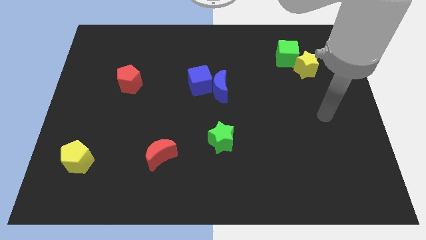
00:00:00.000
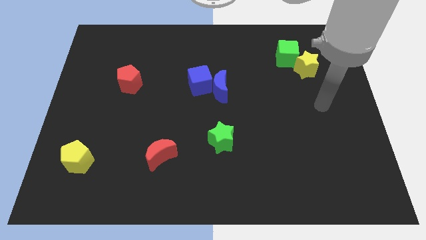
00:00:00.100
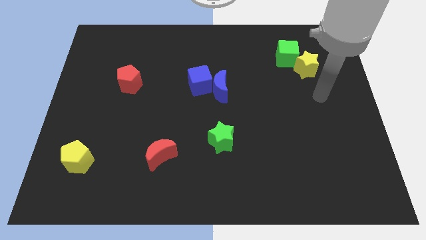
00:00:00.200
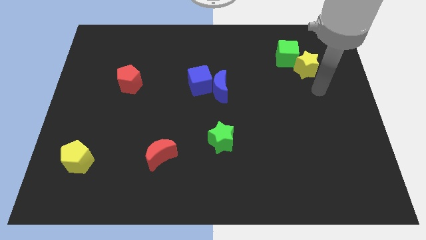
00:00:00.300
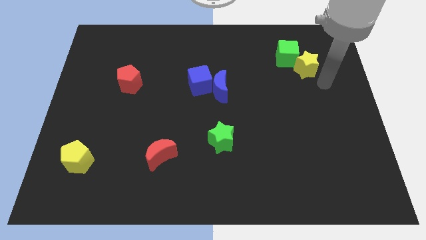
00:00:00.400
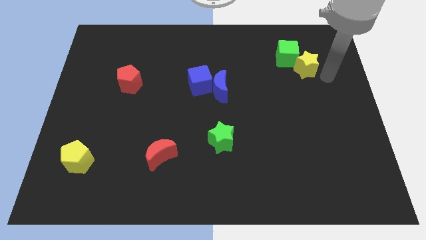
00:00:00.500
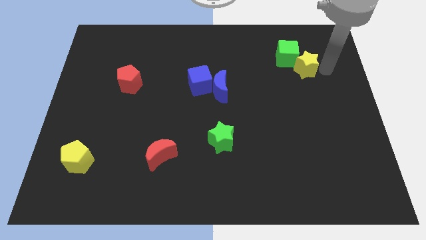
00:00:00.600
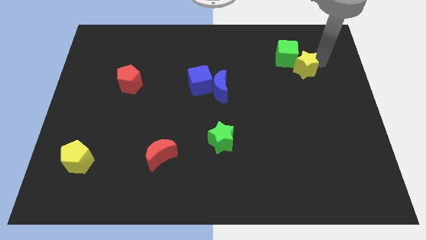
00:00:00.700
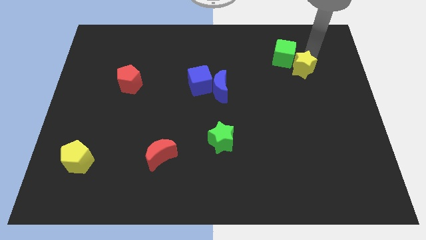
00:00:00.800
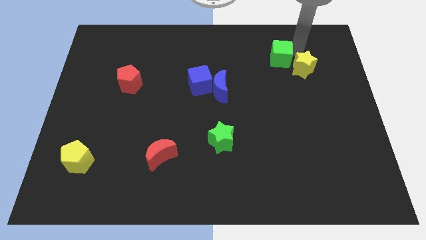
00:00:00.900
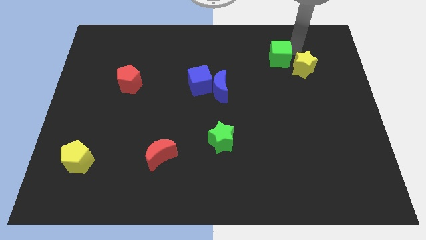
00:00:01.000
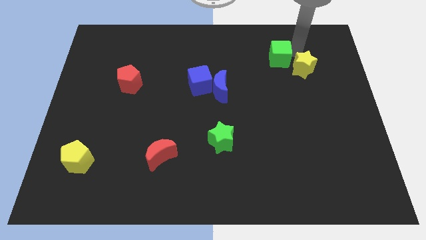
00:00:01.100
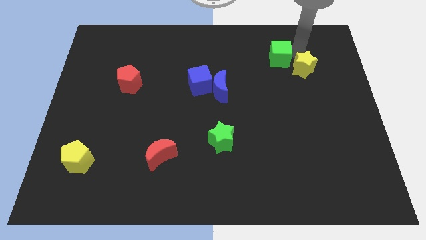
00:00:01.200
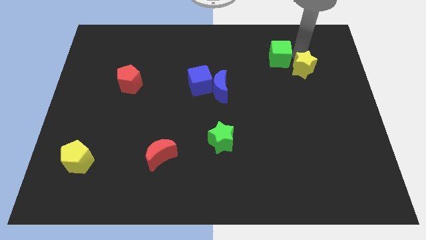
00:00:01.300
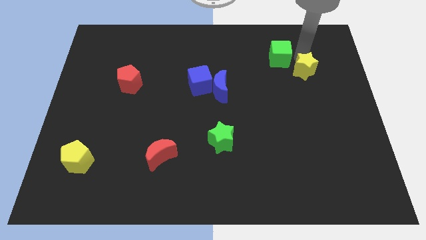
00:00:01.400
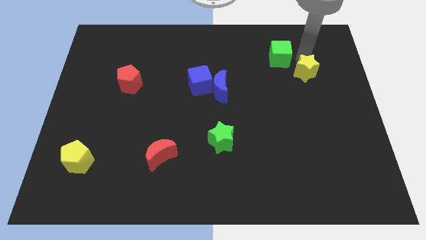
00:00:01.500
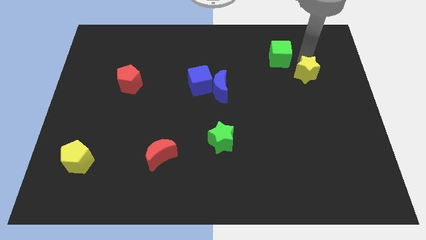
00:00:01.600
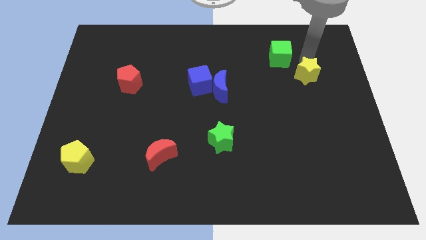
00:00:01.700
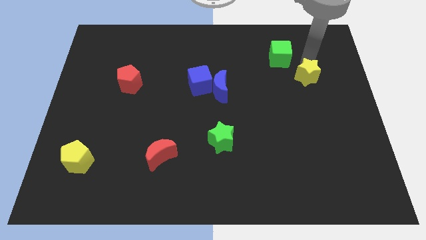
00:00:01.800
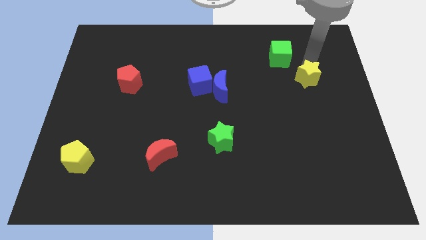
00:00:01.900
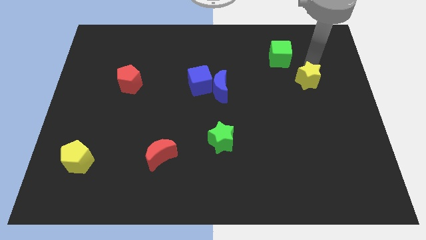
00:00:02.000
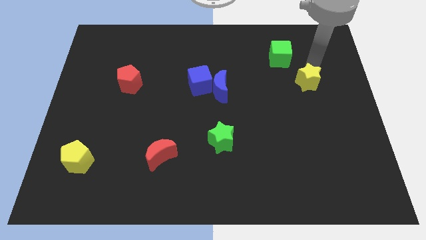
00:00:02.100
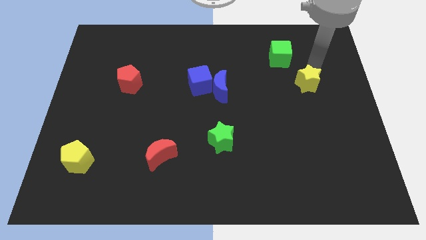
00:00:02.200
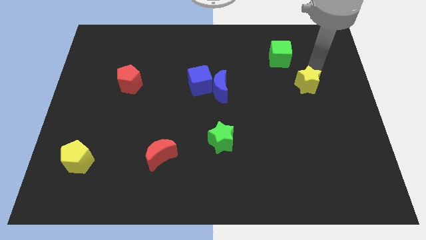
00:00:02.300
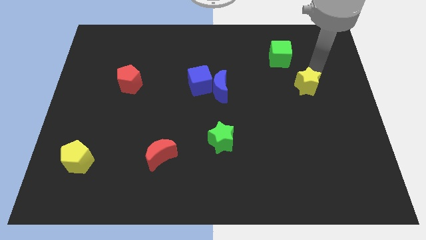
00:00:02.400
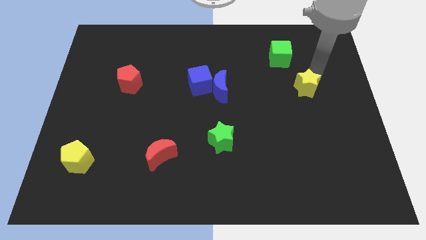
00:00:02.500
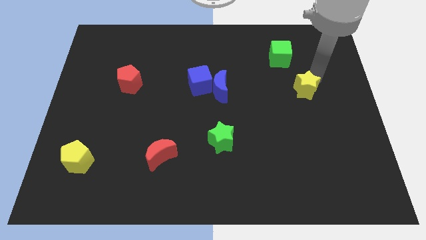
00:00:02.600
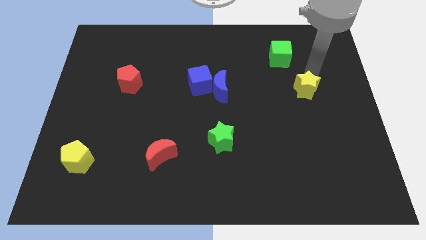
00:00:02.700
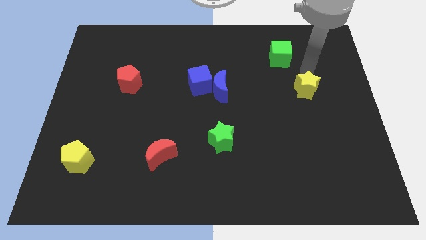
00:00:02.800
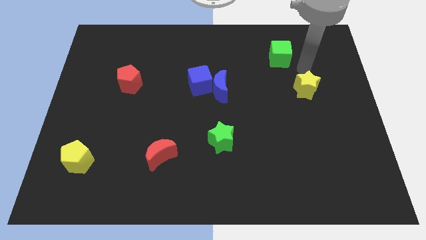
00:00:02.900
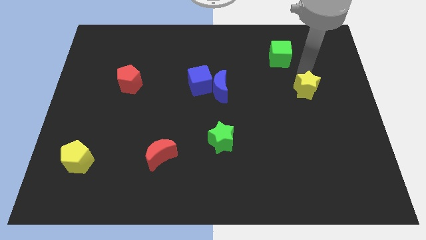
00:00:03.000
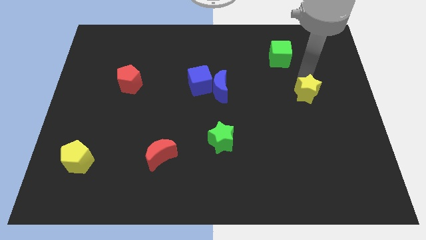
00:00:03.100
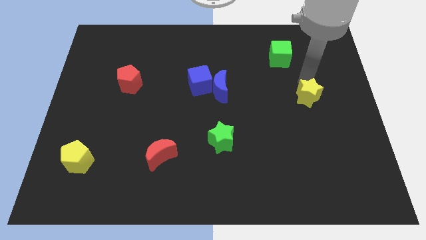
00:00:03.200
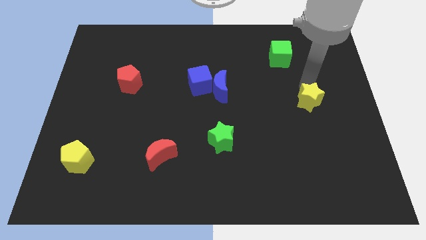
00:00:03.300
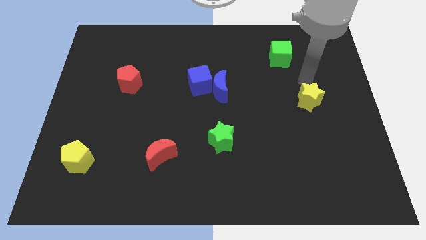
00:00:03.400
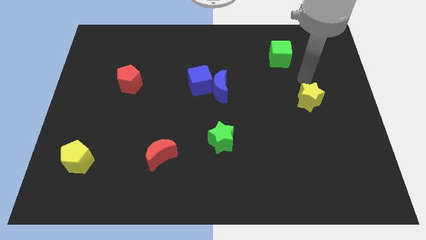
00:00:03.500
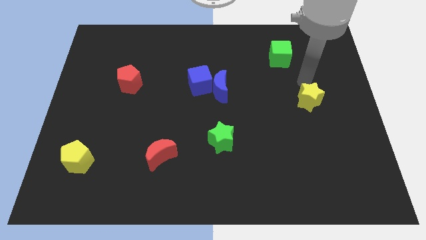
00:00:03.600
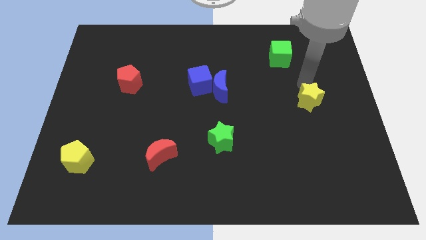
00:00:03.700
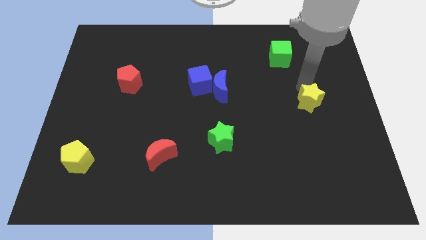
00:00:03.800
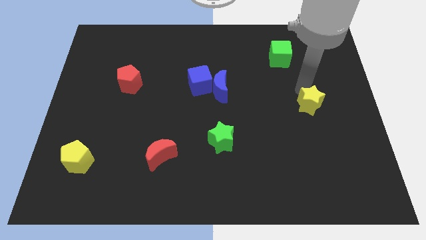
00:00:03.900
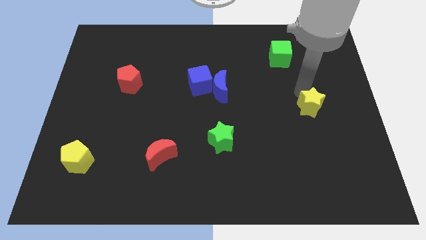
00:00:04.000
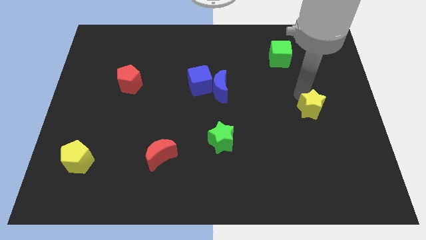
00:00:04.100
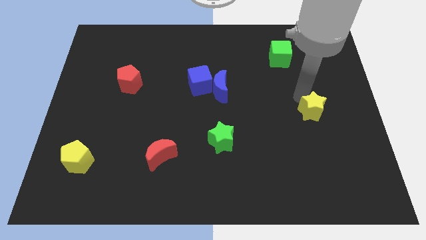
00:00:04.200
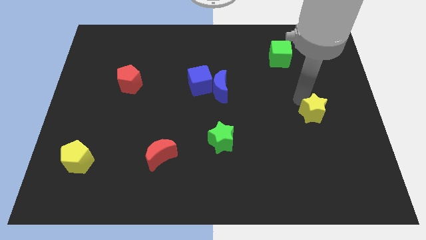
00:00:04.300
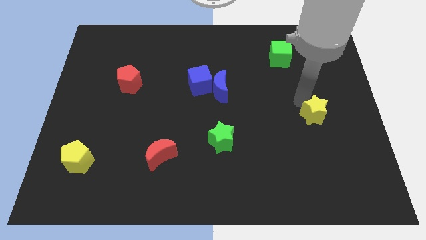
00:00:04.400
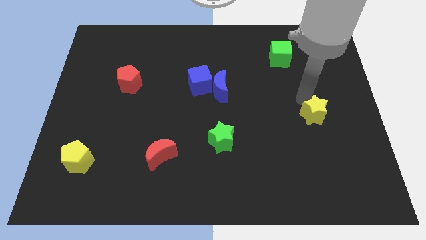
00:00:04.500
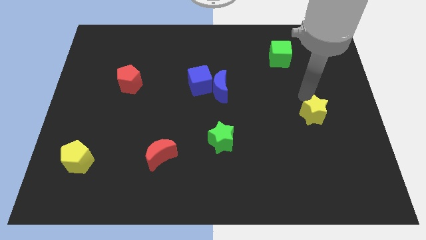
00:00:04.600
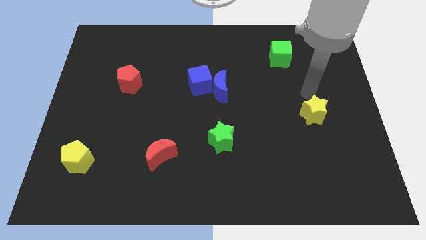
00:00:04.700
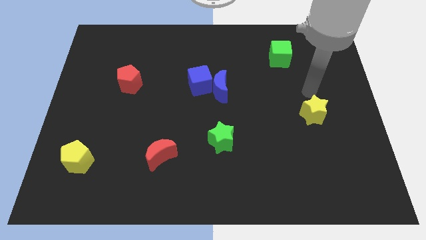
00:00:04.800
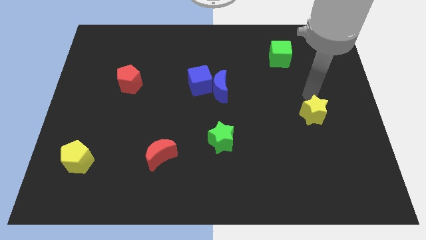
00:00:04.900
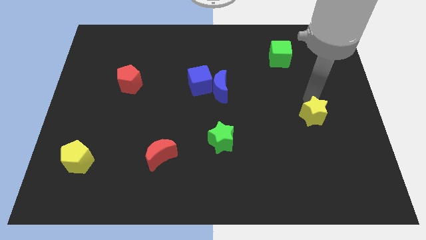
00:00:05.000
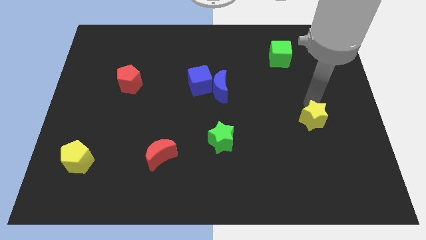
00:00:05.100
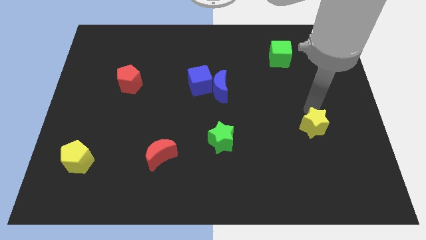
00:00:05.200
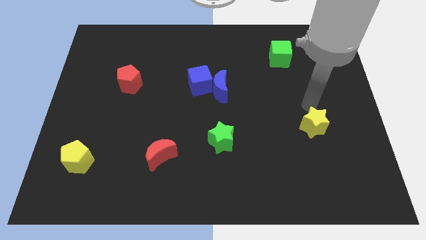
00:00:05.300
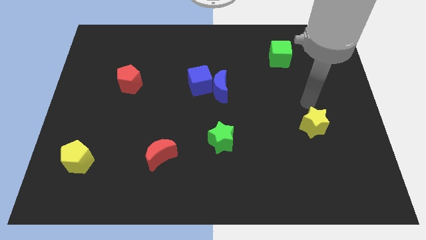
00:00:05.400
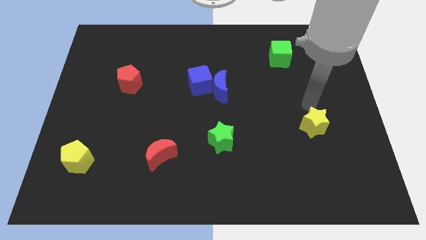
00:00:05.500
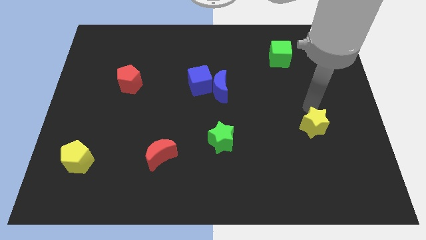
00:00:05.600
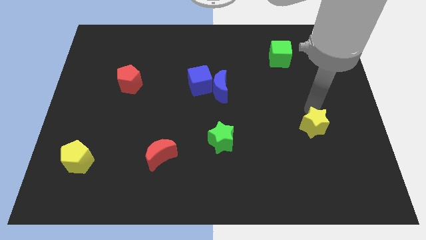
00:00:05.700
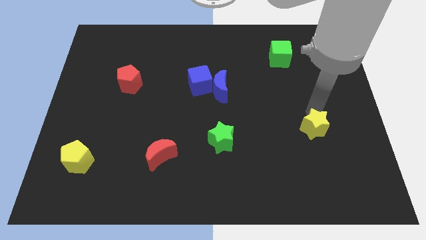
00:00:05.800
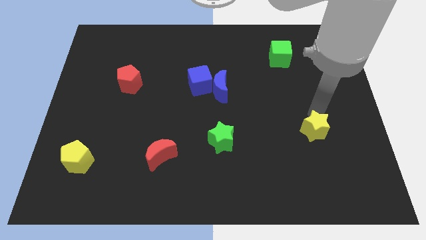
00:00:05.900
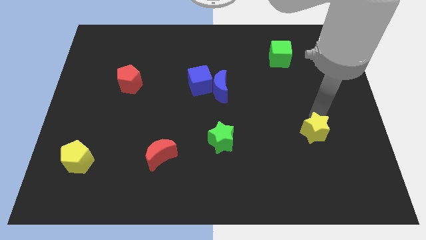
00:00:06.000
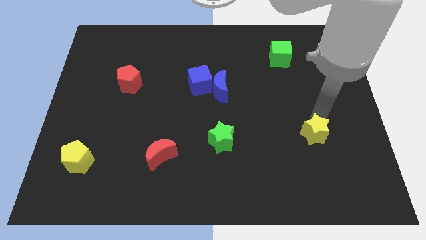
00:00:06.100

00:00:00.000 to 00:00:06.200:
move the yellow star down

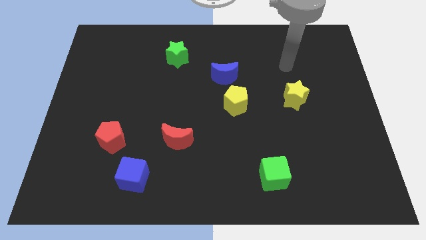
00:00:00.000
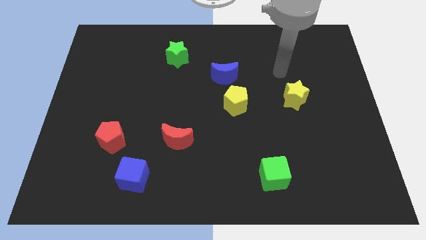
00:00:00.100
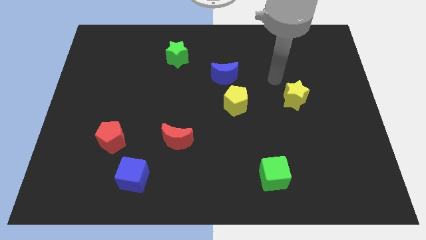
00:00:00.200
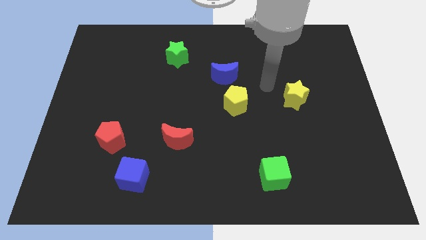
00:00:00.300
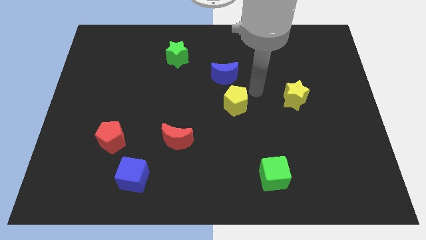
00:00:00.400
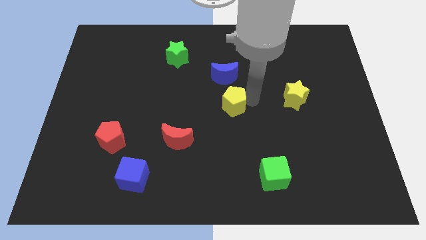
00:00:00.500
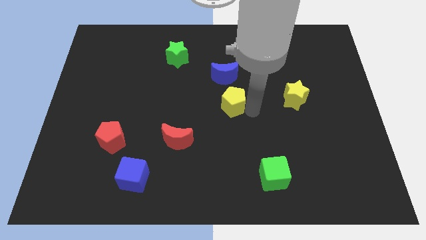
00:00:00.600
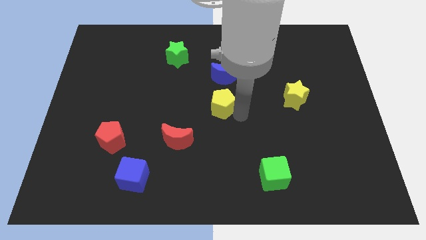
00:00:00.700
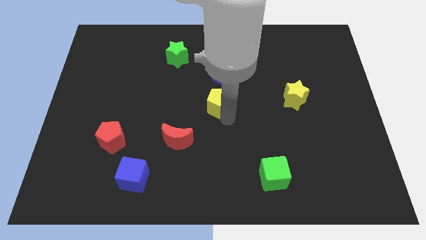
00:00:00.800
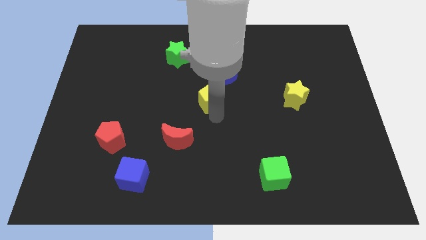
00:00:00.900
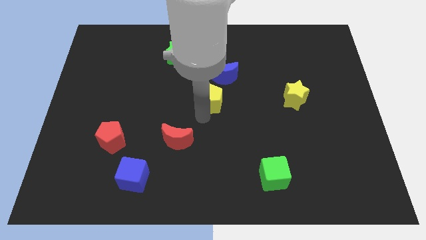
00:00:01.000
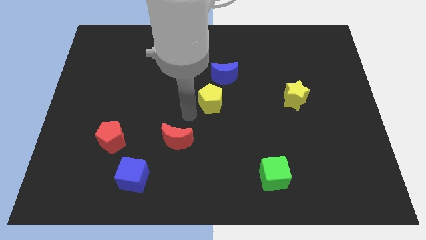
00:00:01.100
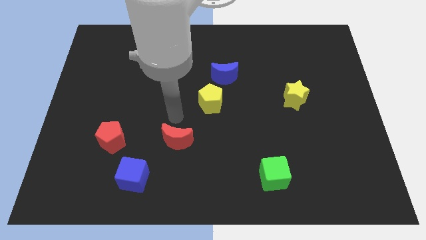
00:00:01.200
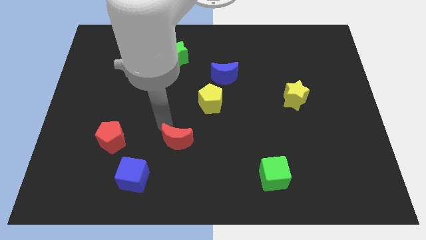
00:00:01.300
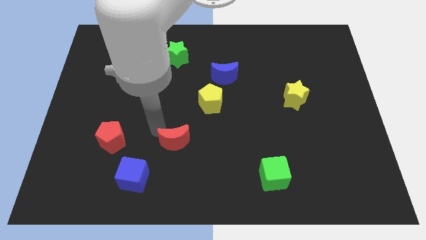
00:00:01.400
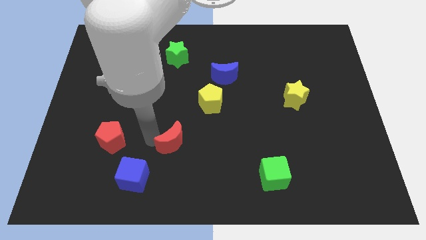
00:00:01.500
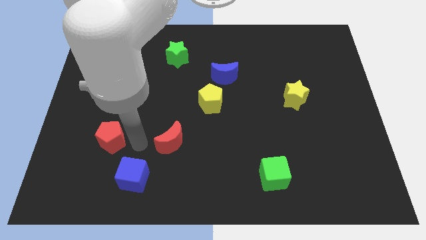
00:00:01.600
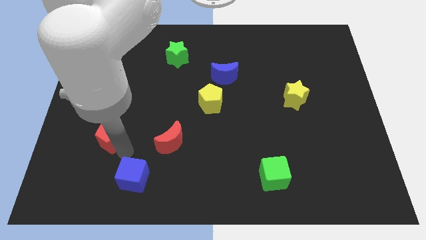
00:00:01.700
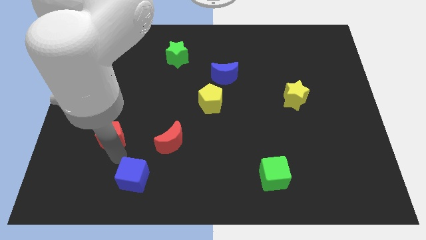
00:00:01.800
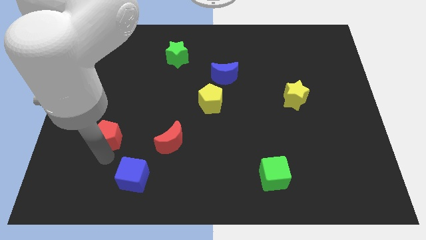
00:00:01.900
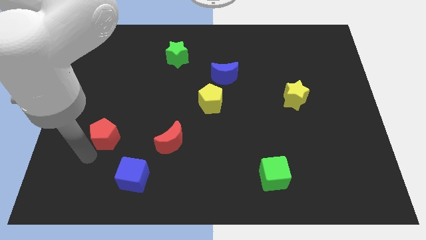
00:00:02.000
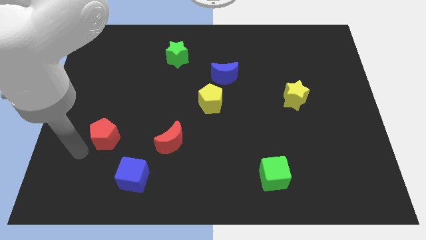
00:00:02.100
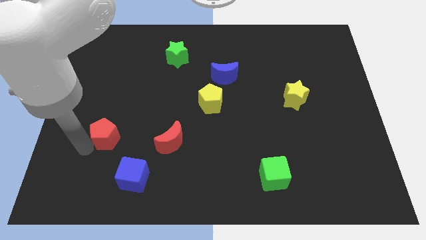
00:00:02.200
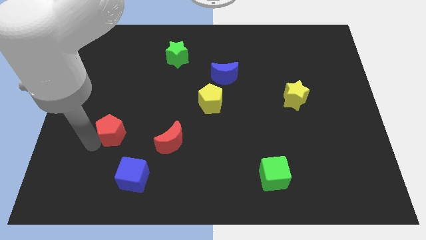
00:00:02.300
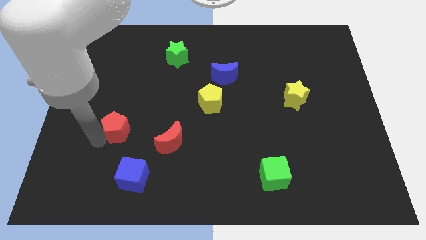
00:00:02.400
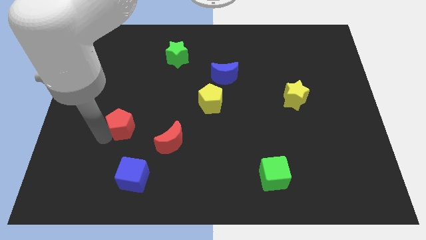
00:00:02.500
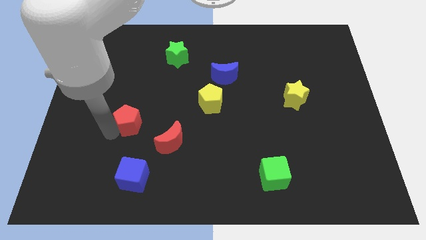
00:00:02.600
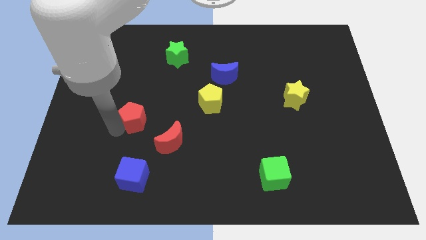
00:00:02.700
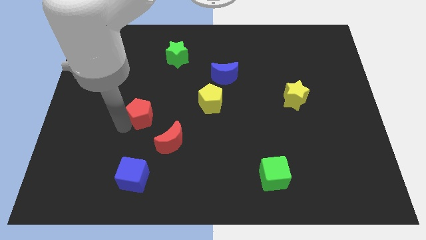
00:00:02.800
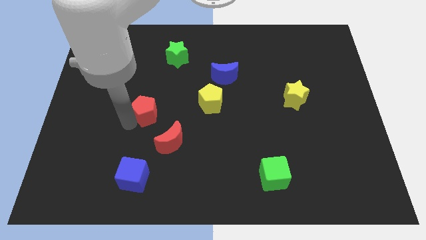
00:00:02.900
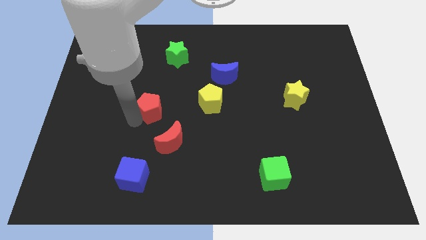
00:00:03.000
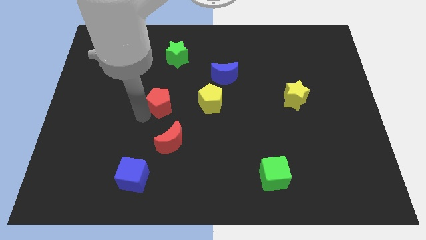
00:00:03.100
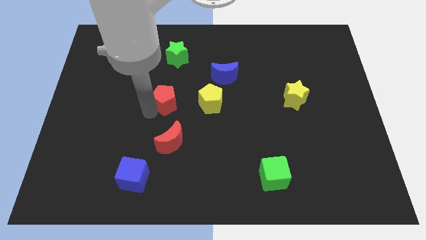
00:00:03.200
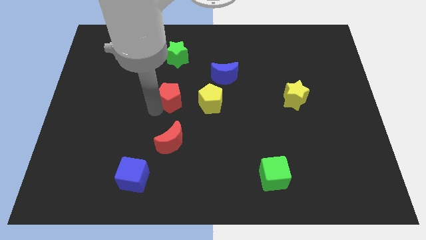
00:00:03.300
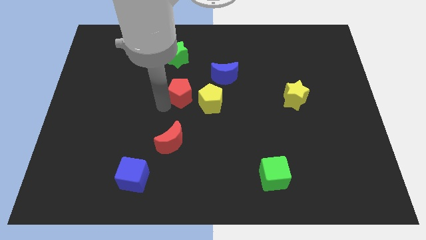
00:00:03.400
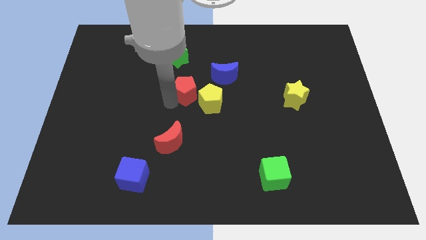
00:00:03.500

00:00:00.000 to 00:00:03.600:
push the red pentagon up and then to the right
